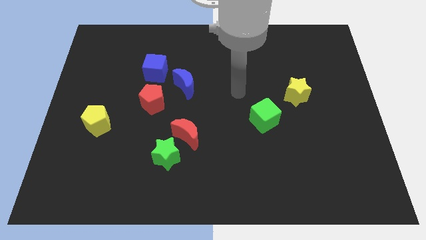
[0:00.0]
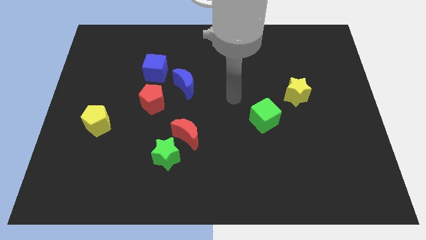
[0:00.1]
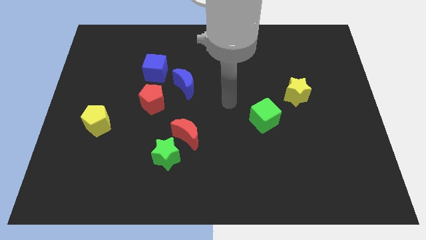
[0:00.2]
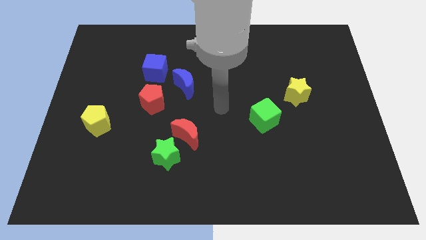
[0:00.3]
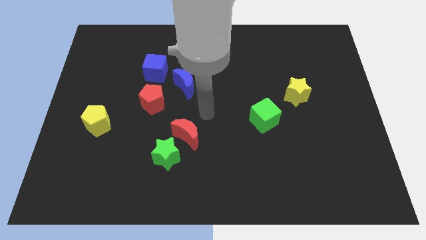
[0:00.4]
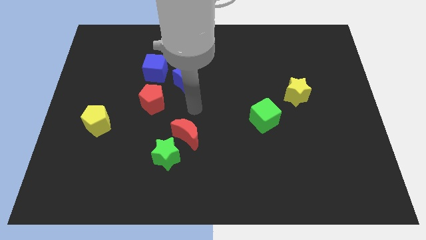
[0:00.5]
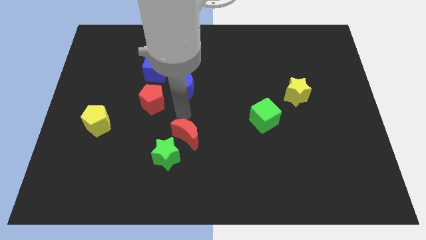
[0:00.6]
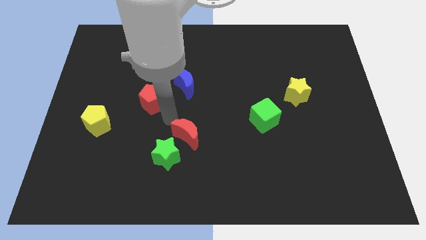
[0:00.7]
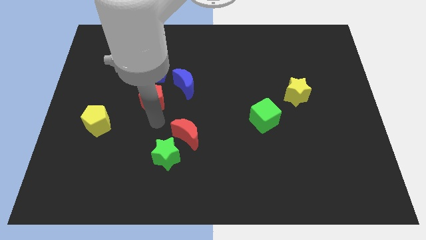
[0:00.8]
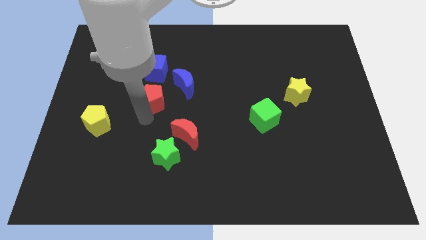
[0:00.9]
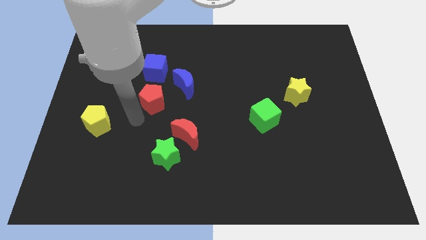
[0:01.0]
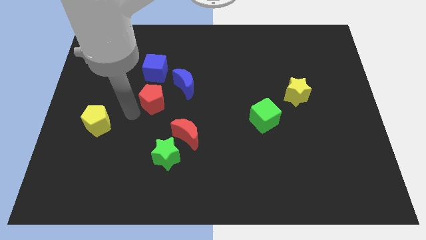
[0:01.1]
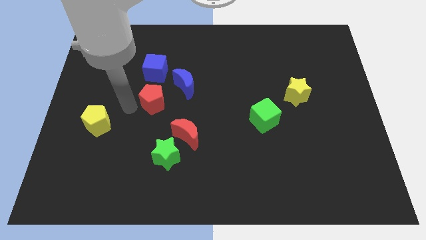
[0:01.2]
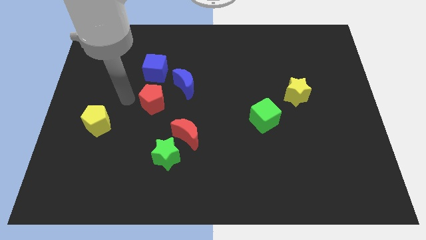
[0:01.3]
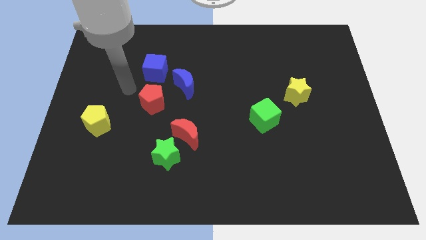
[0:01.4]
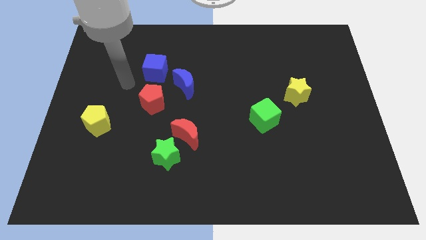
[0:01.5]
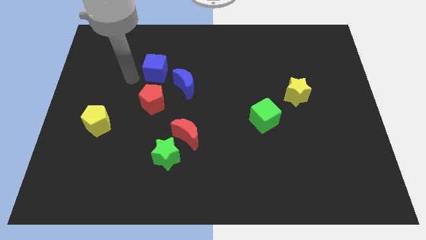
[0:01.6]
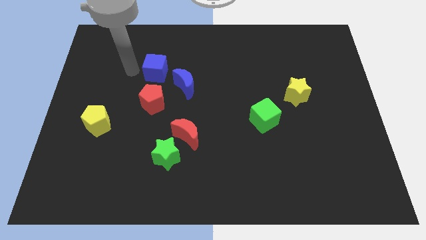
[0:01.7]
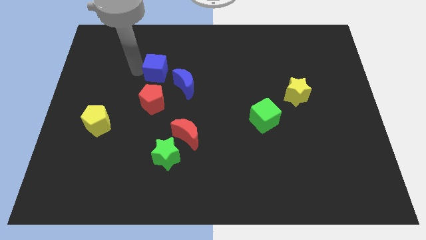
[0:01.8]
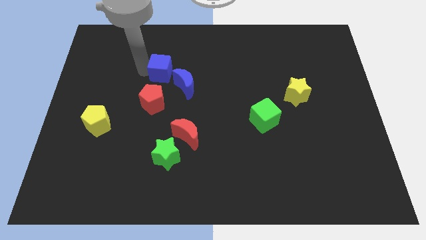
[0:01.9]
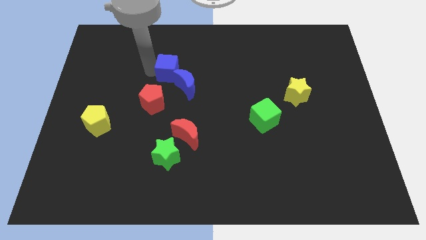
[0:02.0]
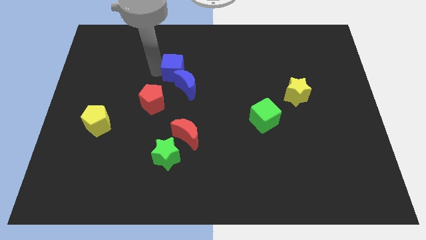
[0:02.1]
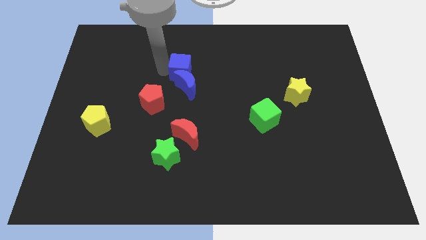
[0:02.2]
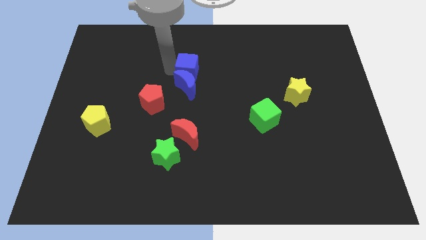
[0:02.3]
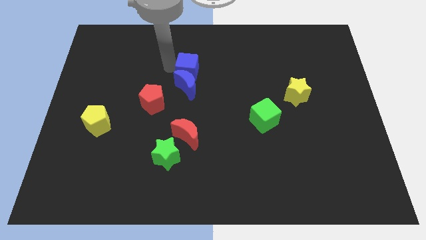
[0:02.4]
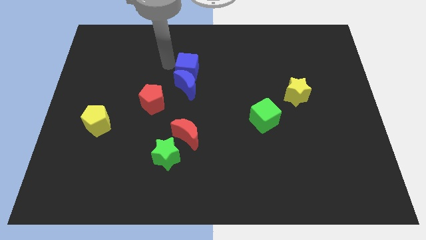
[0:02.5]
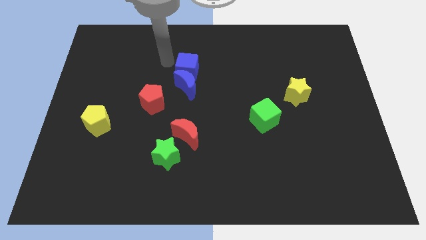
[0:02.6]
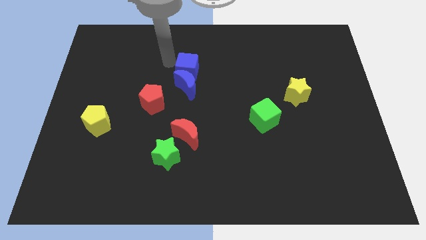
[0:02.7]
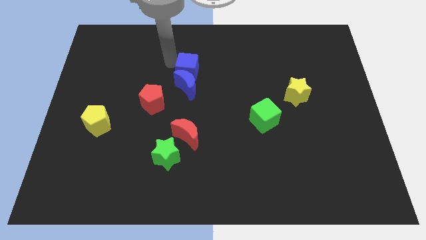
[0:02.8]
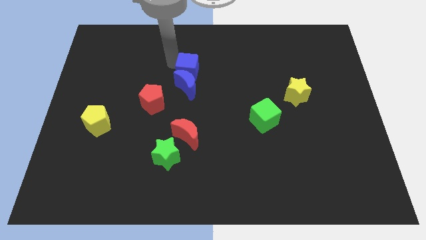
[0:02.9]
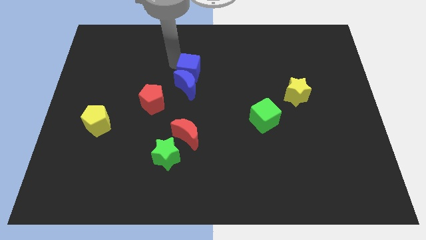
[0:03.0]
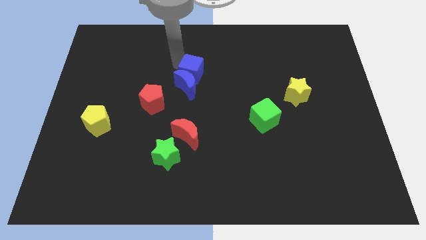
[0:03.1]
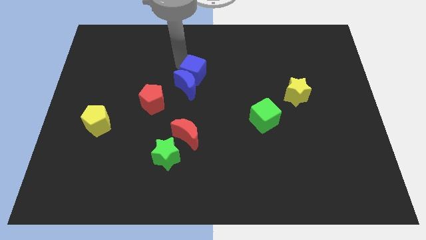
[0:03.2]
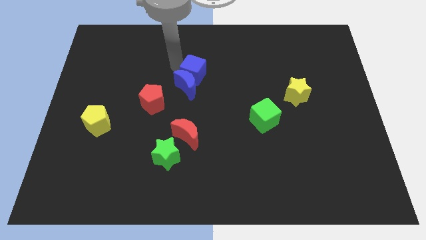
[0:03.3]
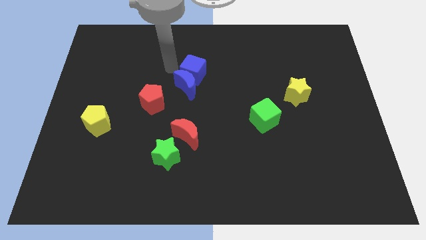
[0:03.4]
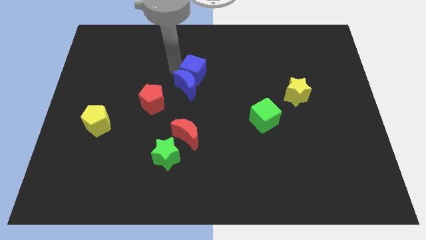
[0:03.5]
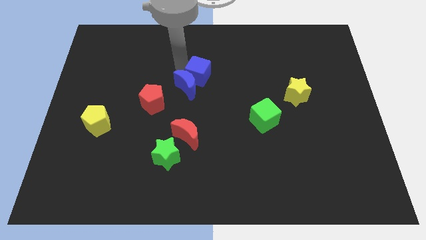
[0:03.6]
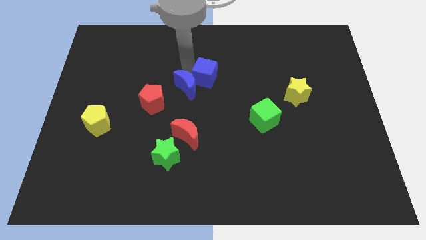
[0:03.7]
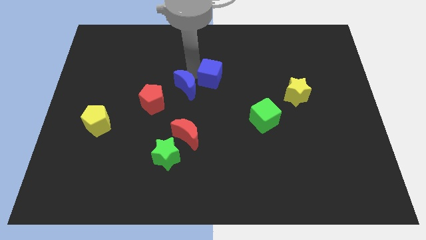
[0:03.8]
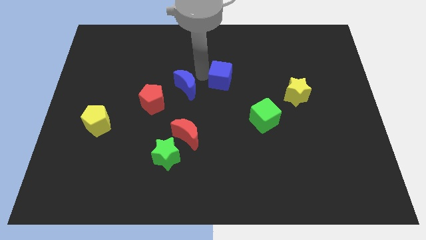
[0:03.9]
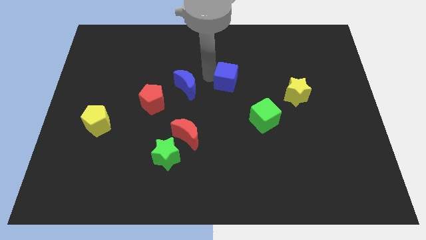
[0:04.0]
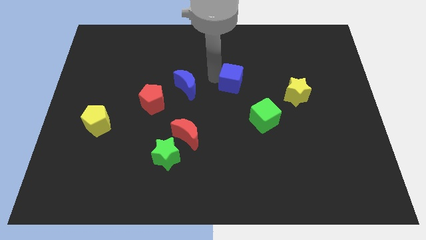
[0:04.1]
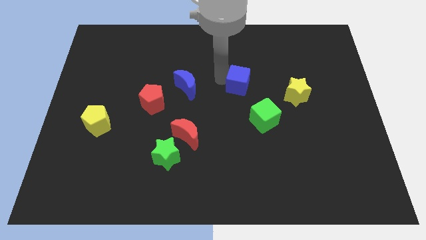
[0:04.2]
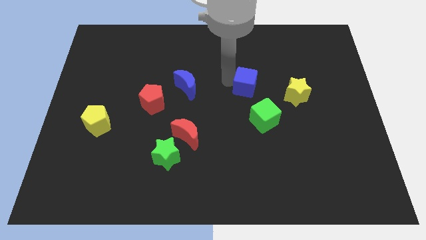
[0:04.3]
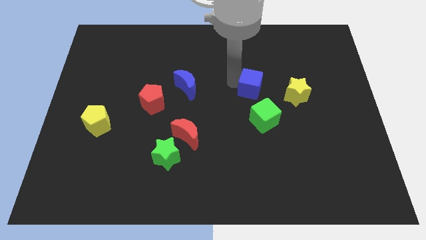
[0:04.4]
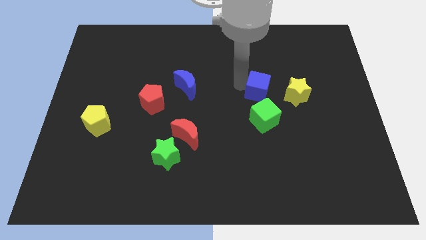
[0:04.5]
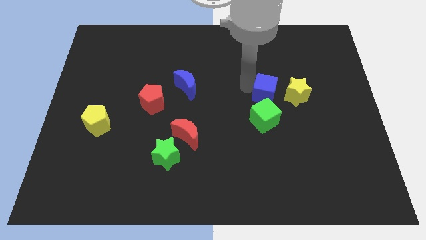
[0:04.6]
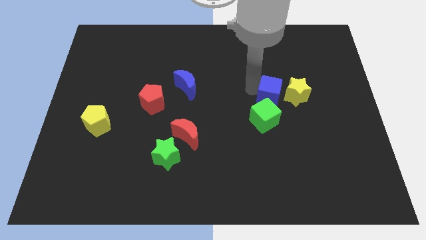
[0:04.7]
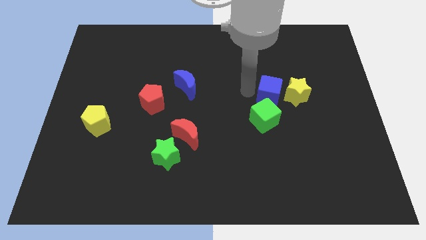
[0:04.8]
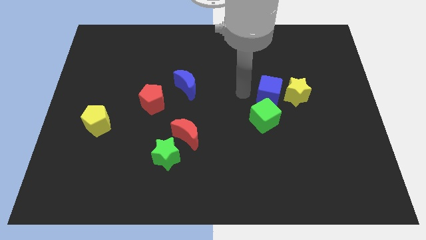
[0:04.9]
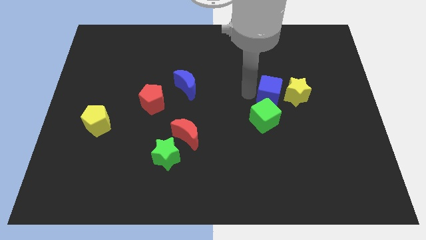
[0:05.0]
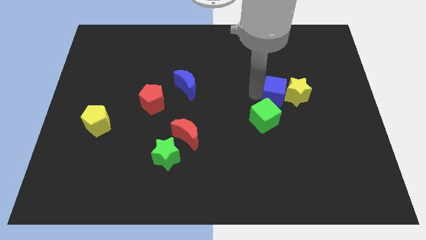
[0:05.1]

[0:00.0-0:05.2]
slide the blue cube towards the yellow star

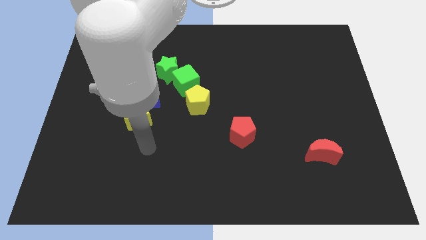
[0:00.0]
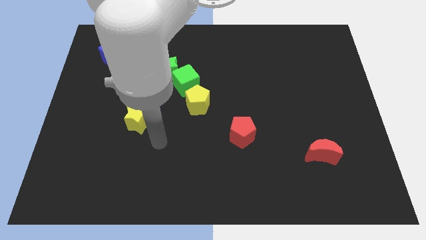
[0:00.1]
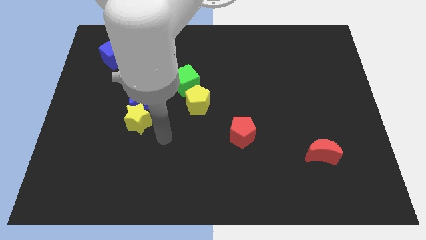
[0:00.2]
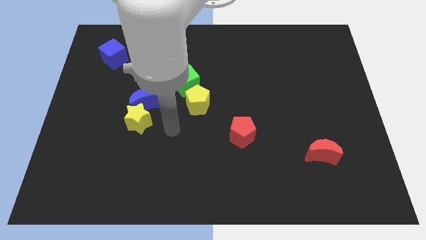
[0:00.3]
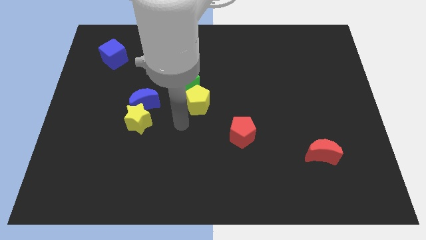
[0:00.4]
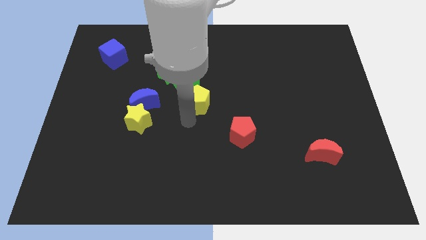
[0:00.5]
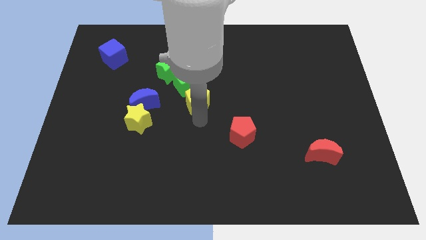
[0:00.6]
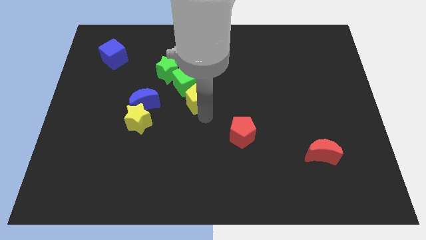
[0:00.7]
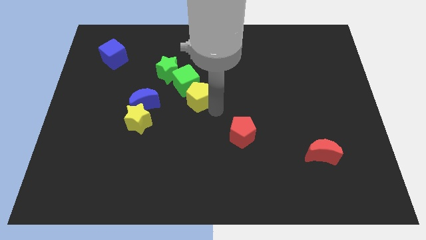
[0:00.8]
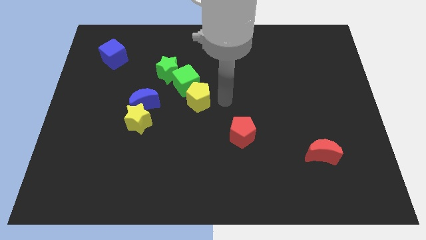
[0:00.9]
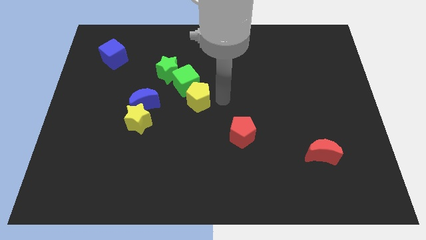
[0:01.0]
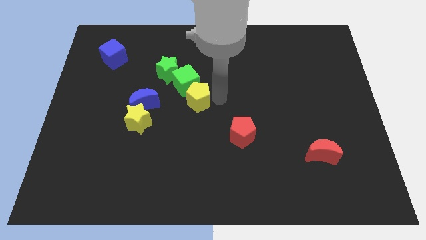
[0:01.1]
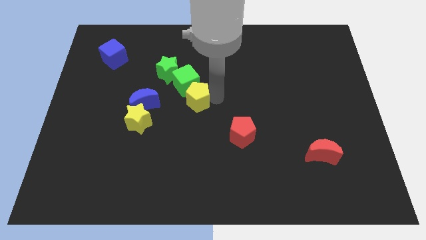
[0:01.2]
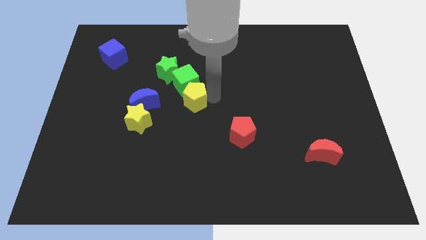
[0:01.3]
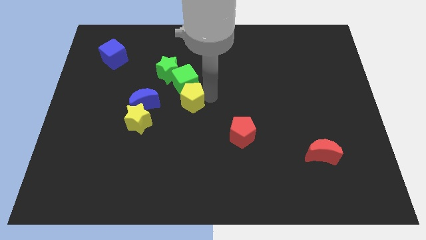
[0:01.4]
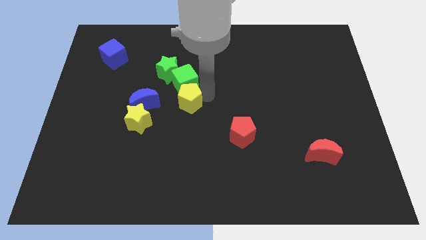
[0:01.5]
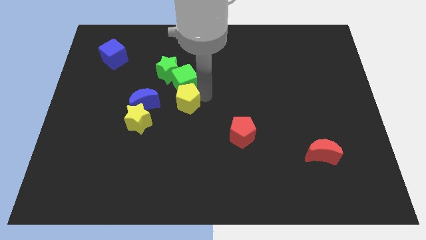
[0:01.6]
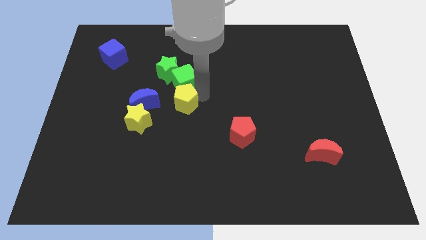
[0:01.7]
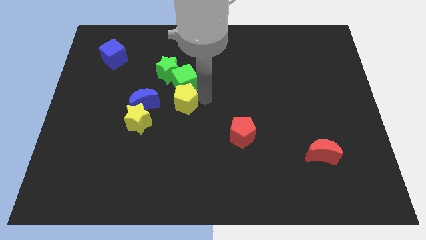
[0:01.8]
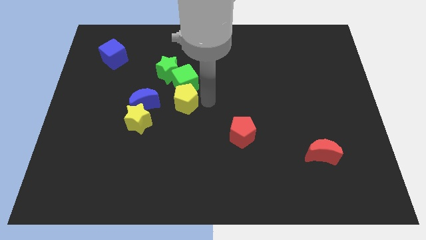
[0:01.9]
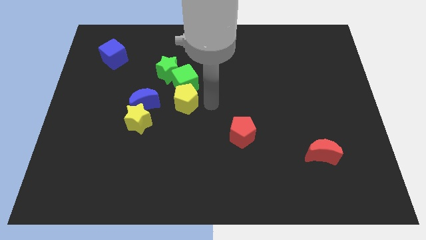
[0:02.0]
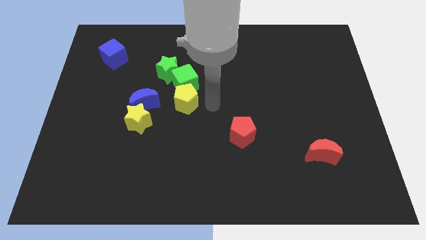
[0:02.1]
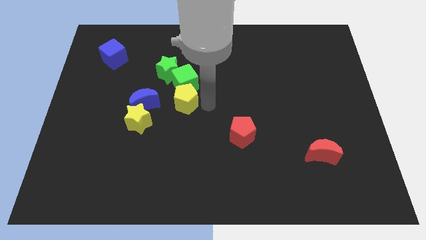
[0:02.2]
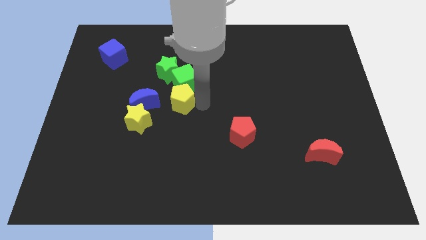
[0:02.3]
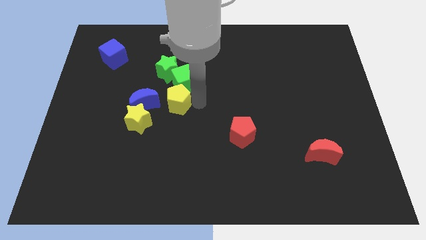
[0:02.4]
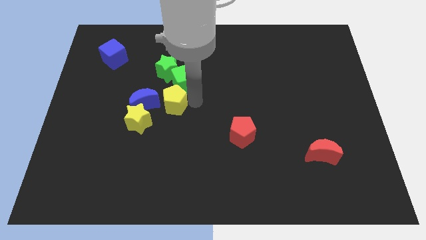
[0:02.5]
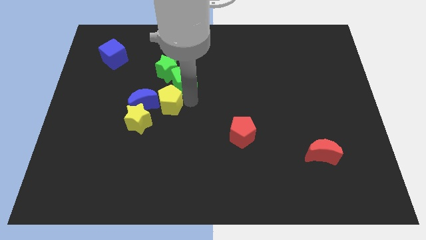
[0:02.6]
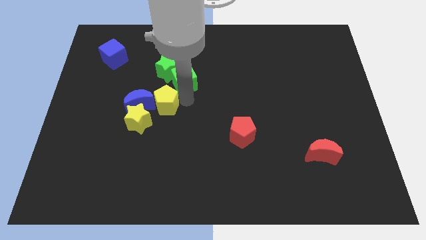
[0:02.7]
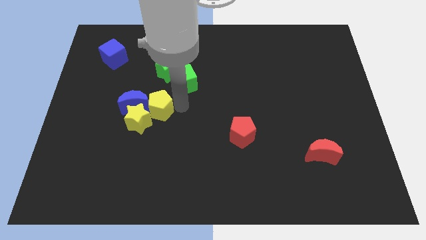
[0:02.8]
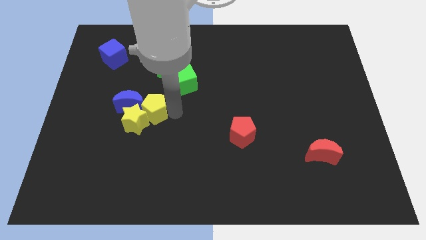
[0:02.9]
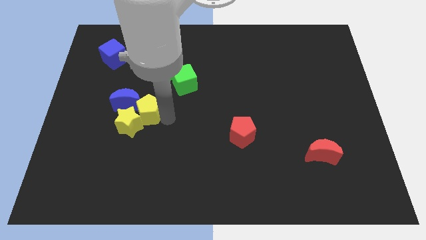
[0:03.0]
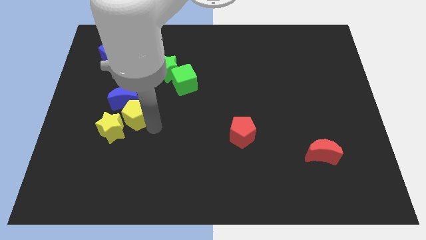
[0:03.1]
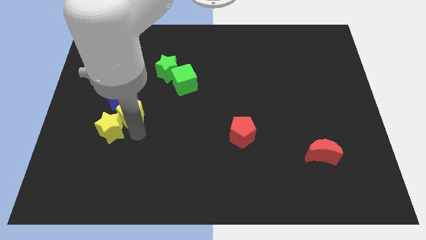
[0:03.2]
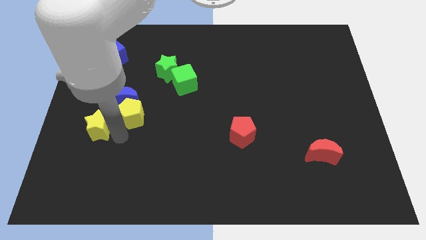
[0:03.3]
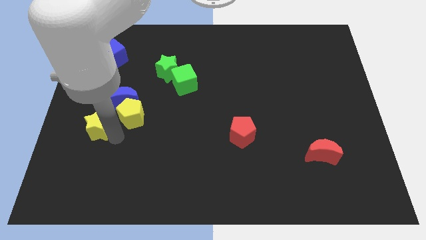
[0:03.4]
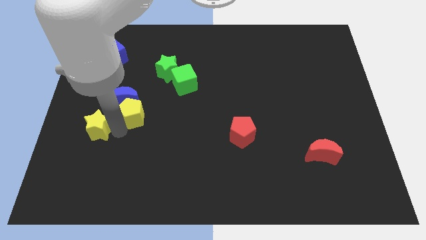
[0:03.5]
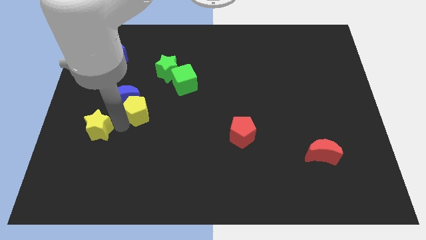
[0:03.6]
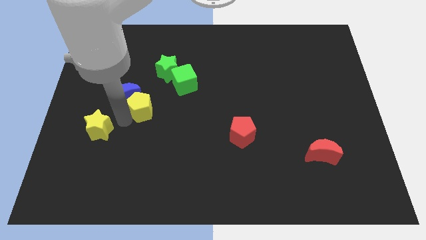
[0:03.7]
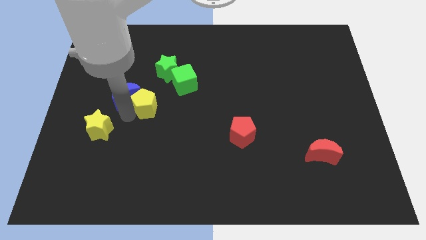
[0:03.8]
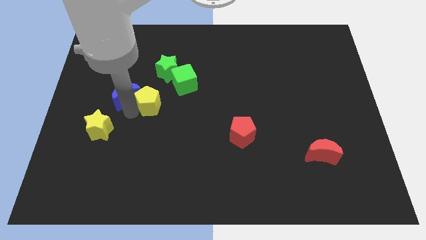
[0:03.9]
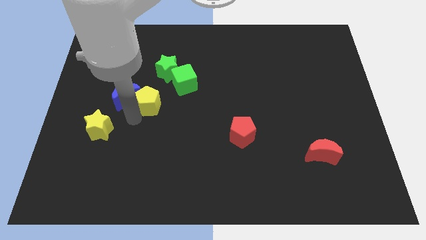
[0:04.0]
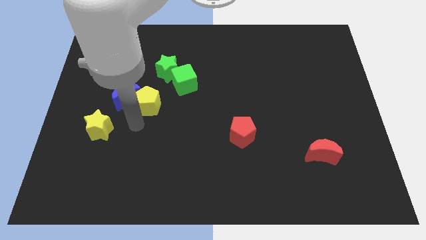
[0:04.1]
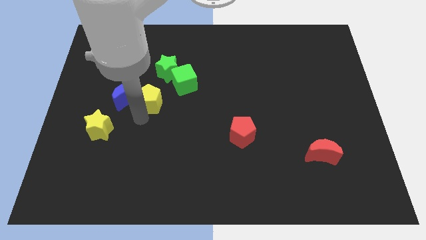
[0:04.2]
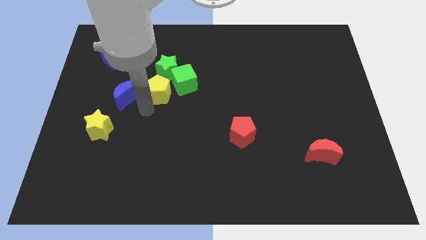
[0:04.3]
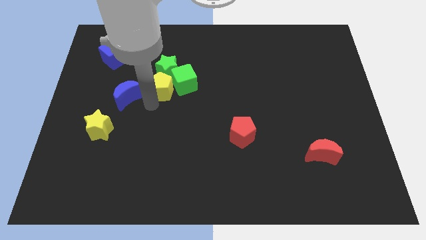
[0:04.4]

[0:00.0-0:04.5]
put the yellow pentagon close to the green star
